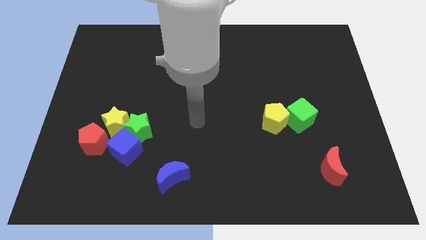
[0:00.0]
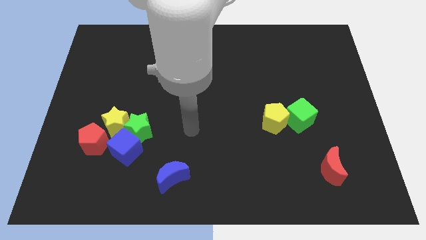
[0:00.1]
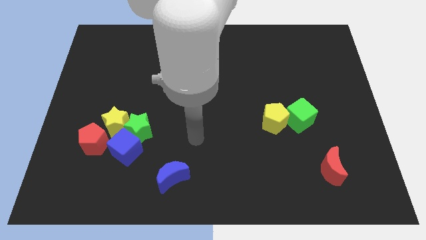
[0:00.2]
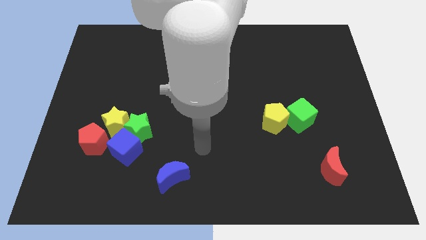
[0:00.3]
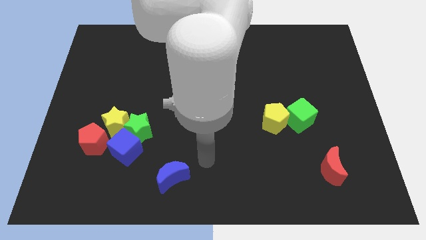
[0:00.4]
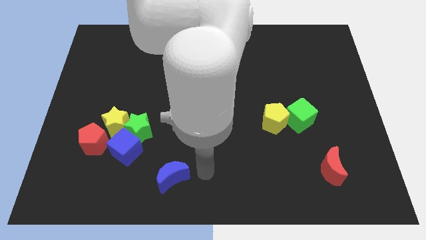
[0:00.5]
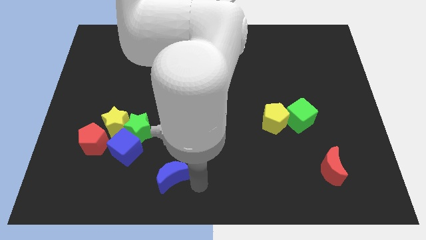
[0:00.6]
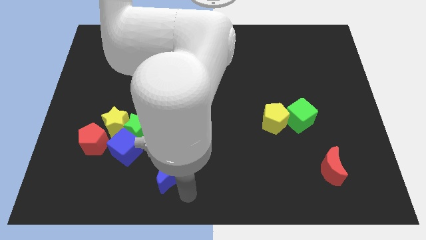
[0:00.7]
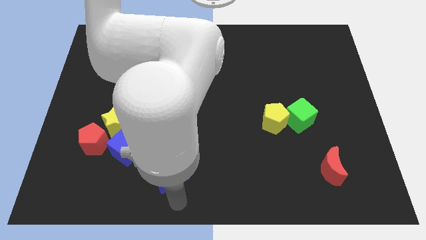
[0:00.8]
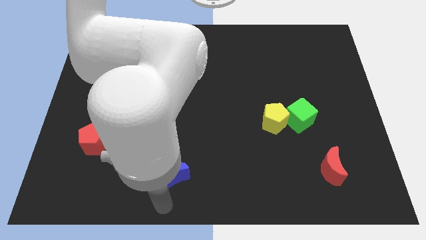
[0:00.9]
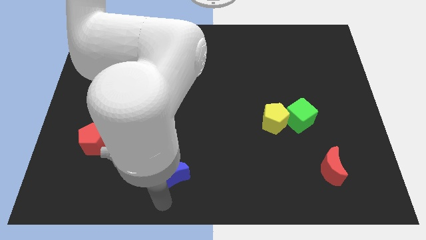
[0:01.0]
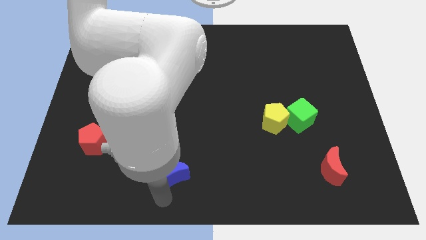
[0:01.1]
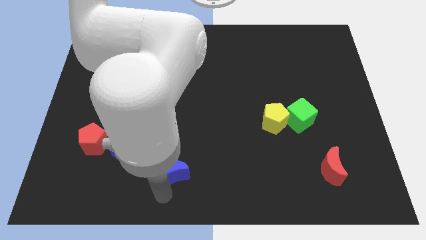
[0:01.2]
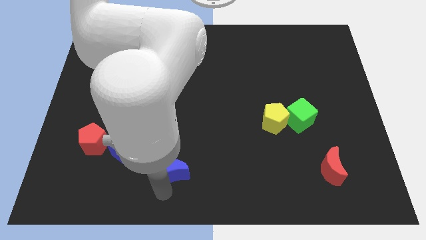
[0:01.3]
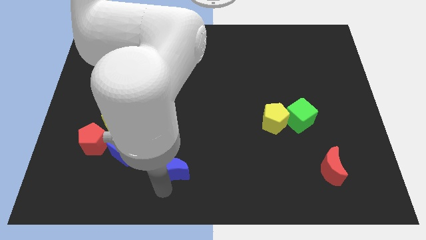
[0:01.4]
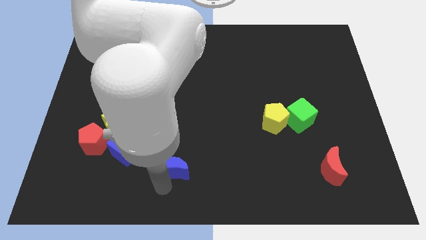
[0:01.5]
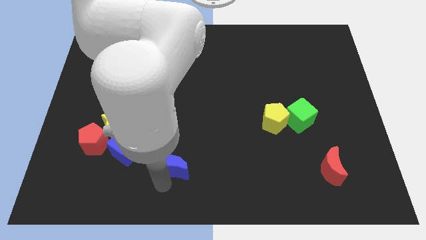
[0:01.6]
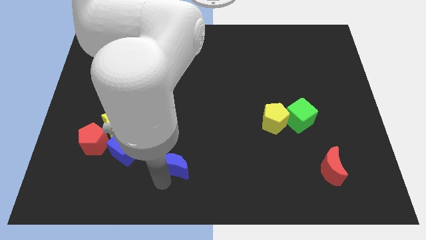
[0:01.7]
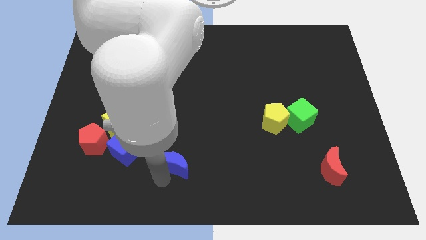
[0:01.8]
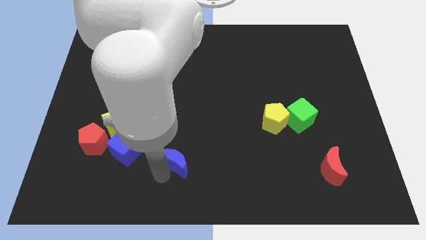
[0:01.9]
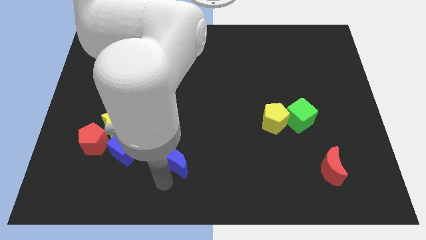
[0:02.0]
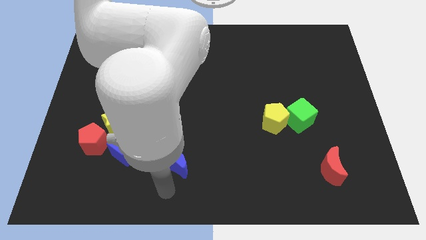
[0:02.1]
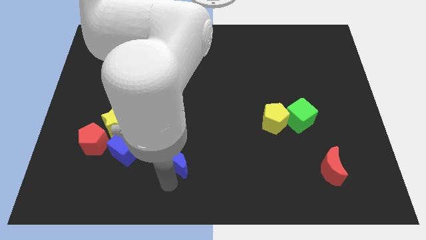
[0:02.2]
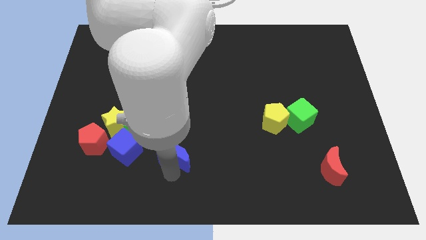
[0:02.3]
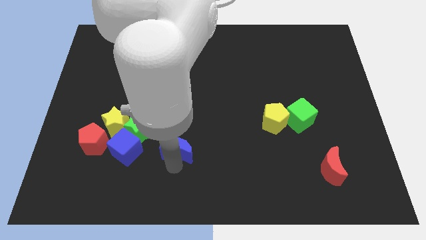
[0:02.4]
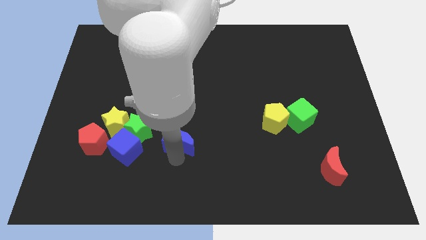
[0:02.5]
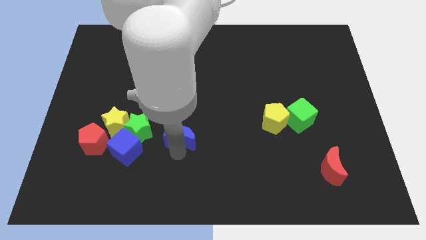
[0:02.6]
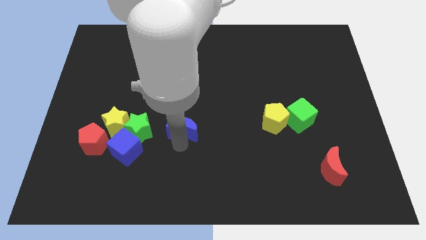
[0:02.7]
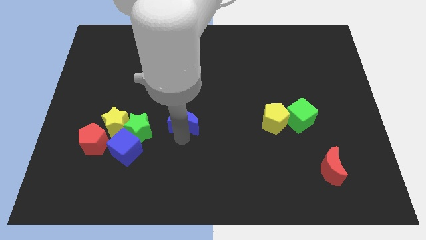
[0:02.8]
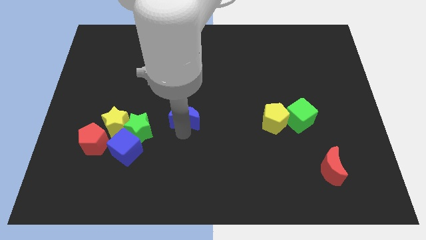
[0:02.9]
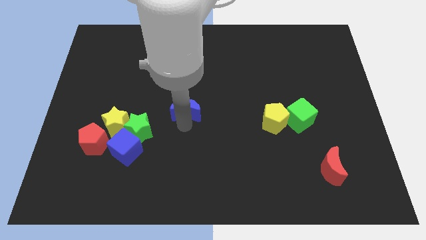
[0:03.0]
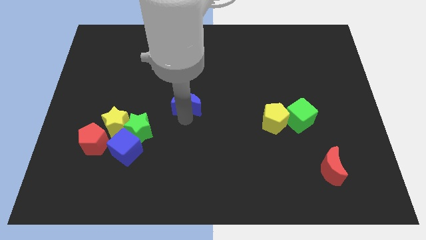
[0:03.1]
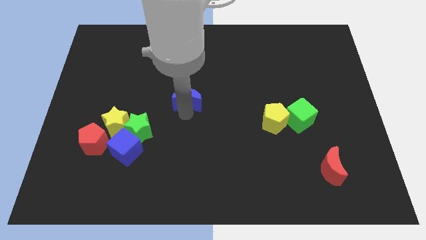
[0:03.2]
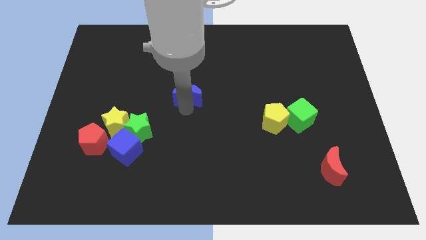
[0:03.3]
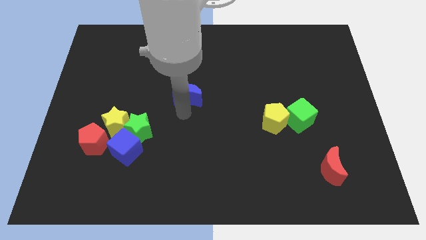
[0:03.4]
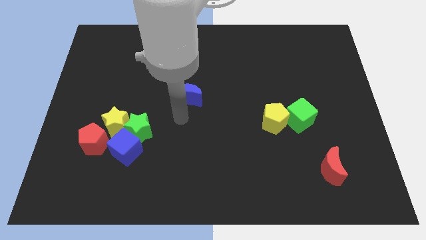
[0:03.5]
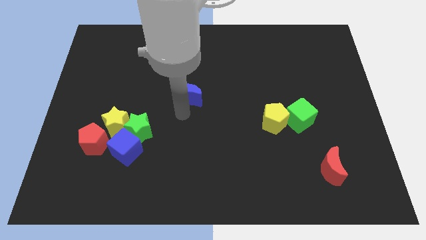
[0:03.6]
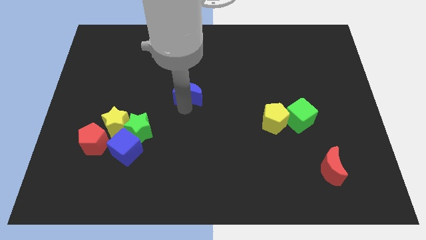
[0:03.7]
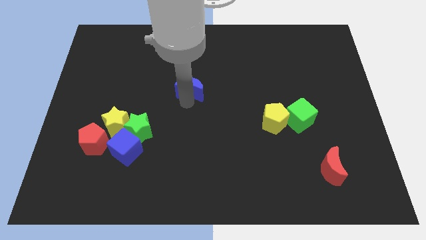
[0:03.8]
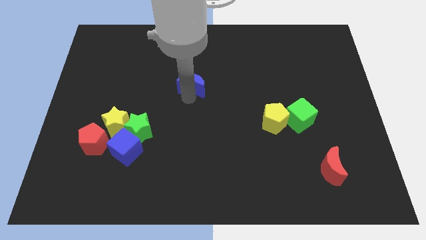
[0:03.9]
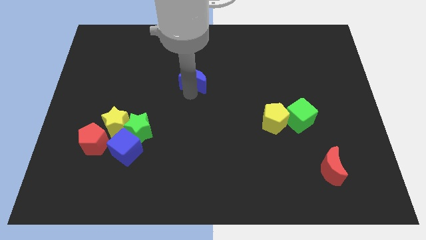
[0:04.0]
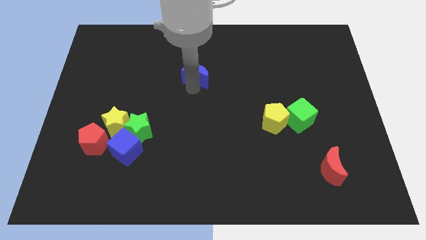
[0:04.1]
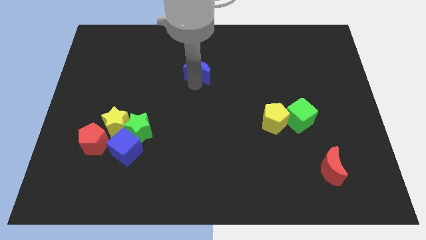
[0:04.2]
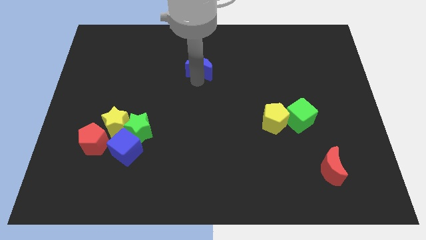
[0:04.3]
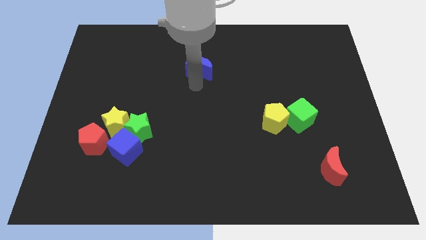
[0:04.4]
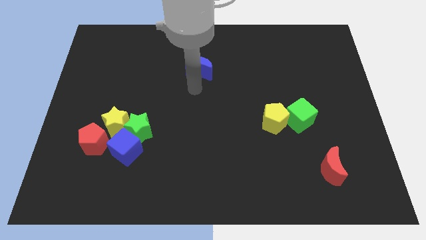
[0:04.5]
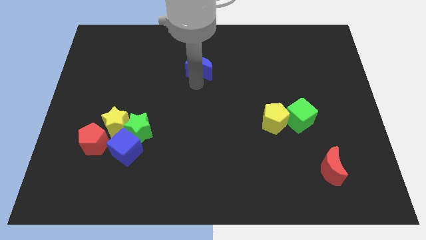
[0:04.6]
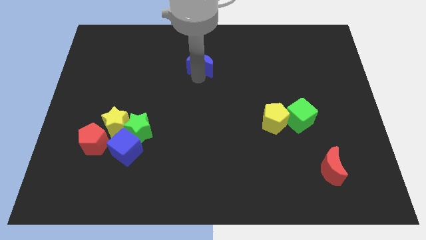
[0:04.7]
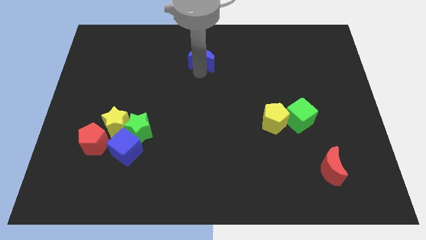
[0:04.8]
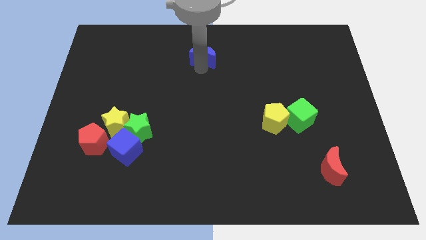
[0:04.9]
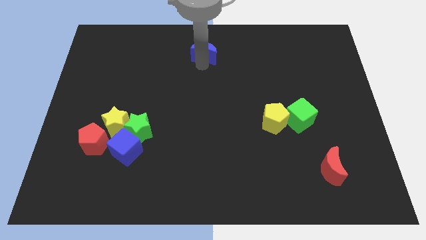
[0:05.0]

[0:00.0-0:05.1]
put the blue moon to the top

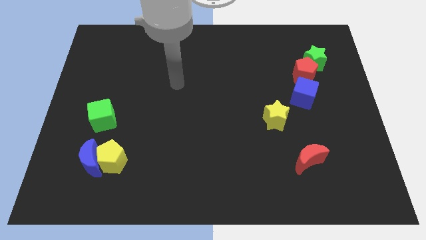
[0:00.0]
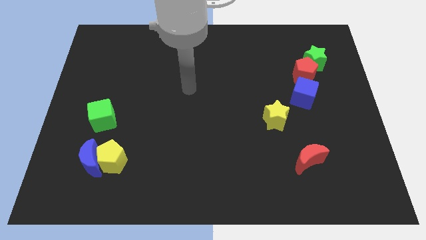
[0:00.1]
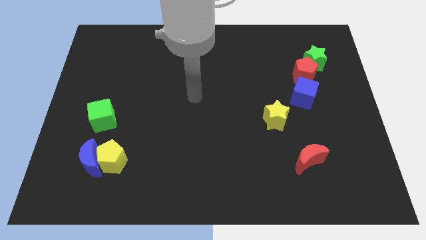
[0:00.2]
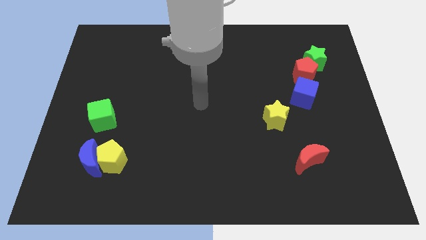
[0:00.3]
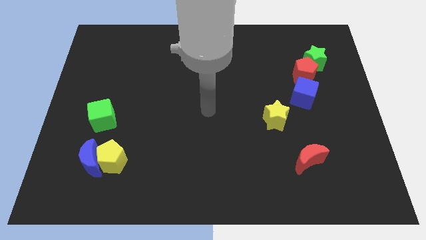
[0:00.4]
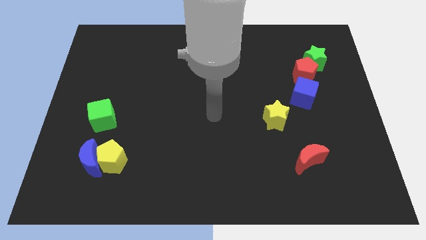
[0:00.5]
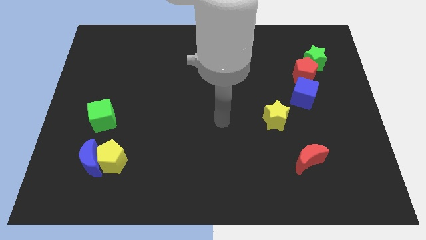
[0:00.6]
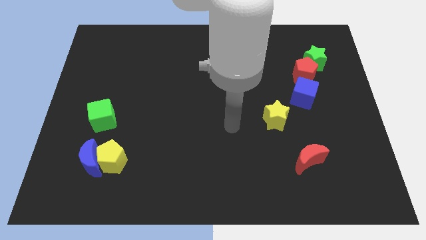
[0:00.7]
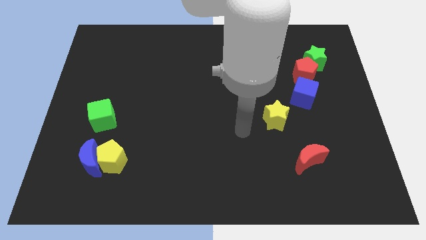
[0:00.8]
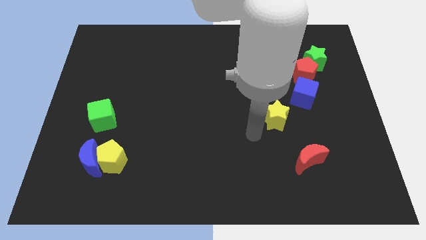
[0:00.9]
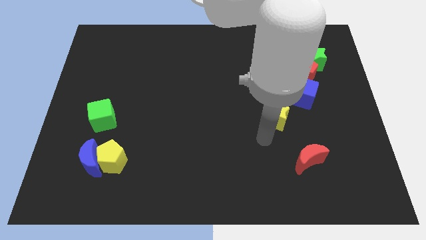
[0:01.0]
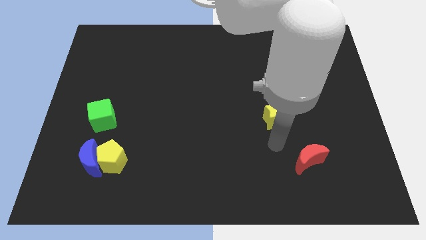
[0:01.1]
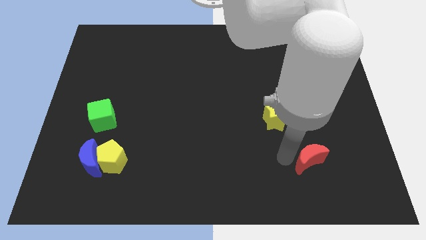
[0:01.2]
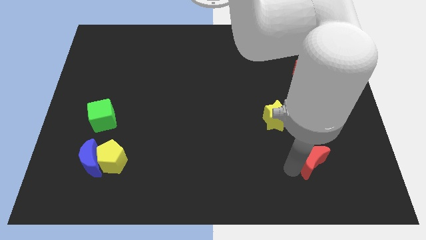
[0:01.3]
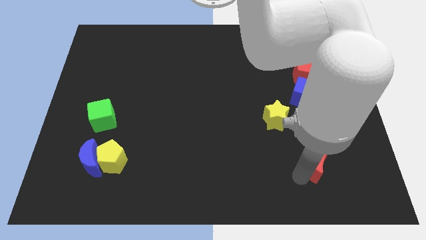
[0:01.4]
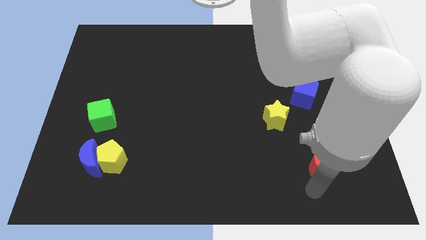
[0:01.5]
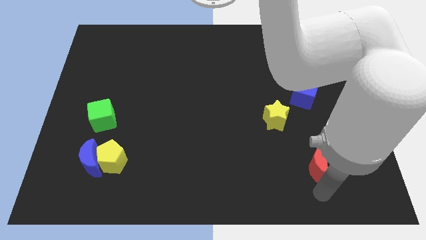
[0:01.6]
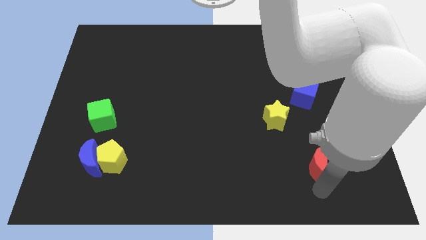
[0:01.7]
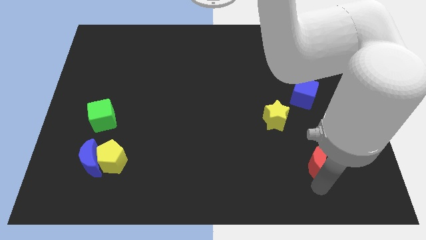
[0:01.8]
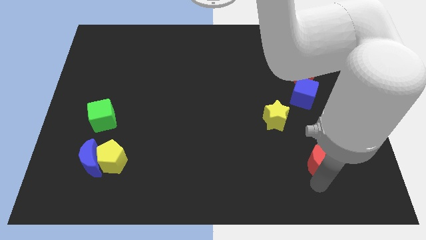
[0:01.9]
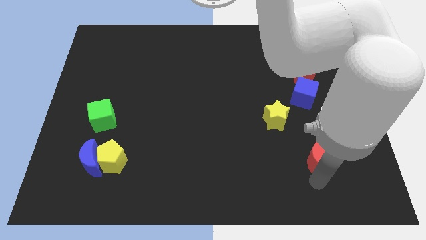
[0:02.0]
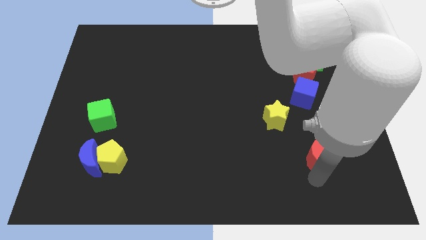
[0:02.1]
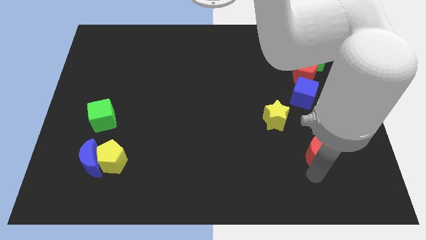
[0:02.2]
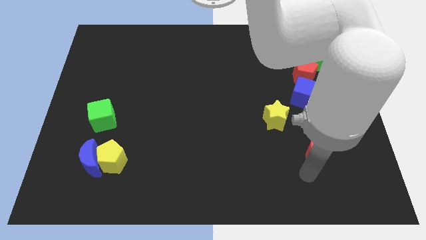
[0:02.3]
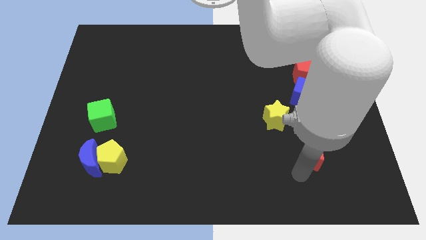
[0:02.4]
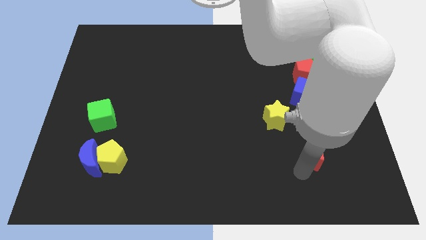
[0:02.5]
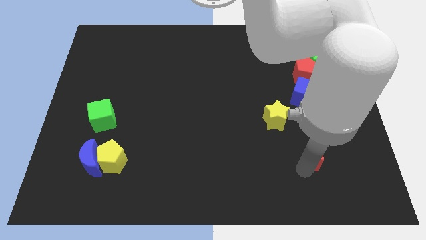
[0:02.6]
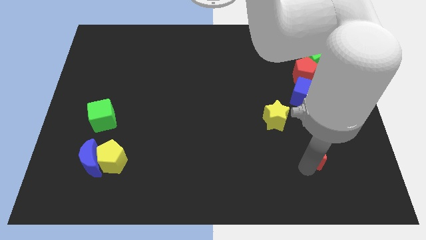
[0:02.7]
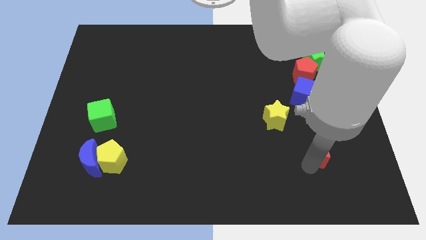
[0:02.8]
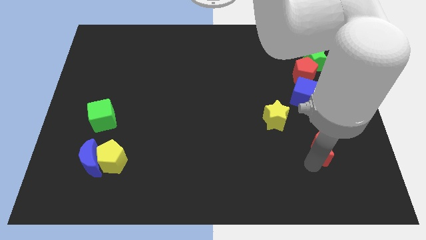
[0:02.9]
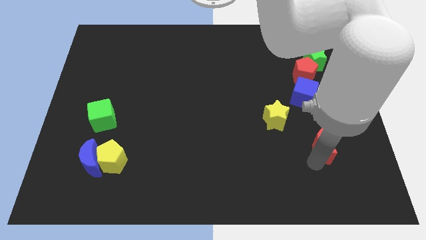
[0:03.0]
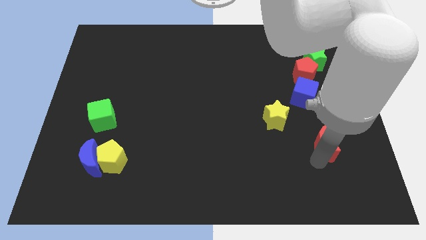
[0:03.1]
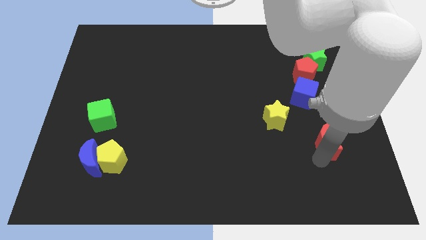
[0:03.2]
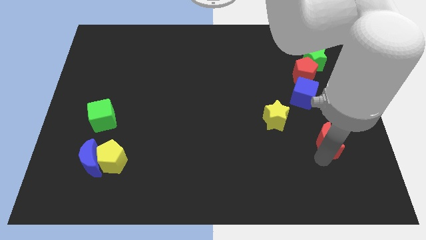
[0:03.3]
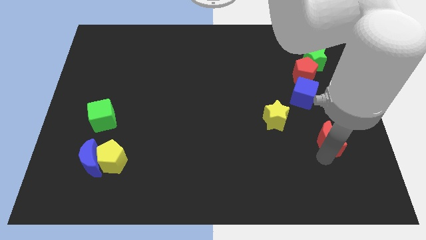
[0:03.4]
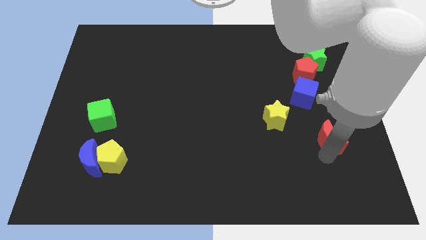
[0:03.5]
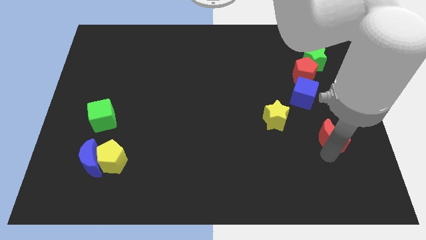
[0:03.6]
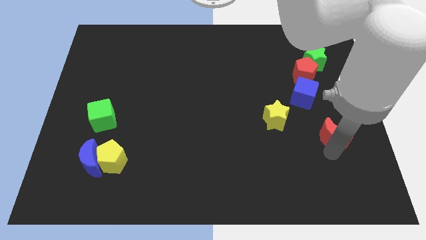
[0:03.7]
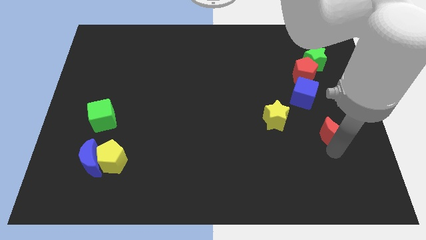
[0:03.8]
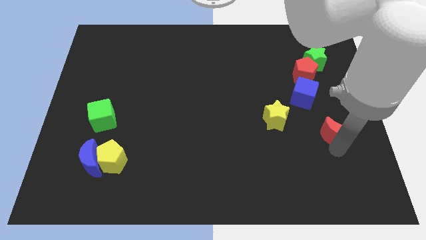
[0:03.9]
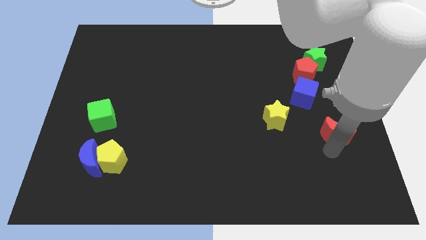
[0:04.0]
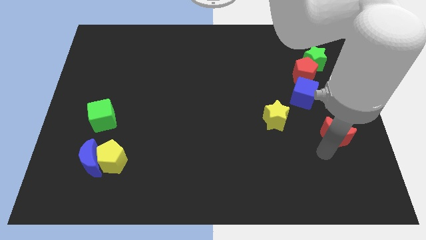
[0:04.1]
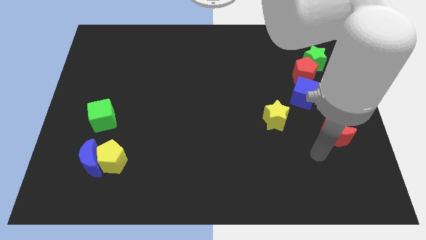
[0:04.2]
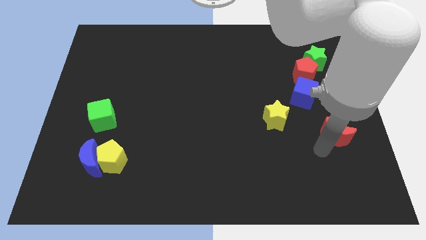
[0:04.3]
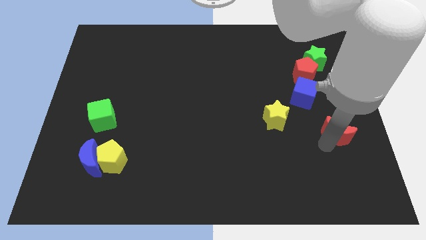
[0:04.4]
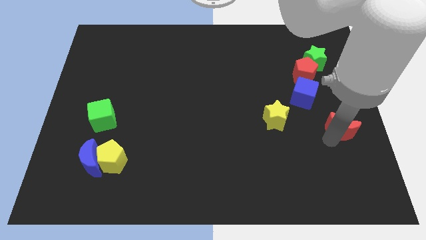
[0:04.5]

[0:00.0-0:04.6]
push the red moon to the center right
